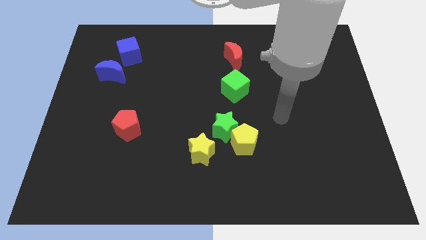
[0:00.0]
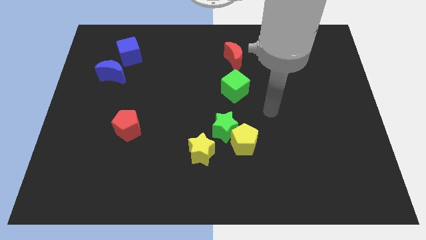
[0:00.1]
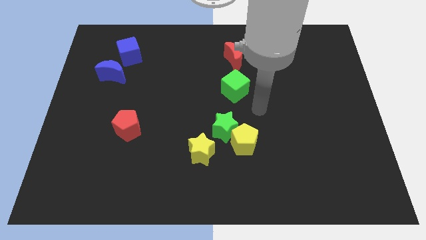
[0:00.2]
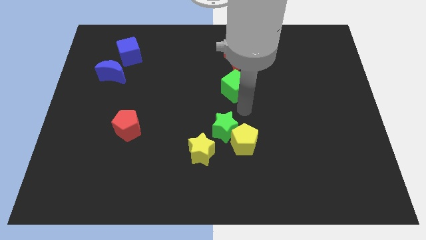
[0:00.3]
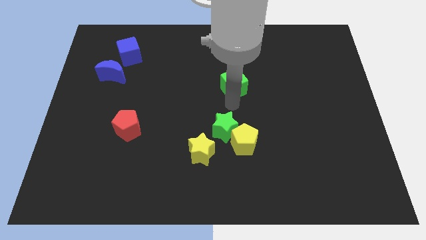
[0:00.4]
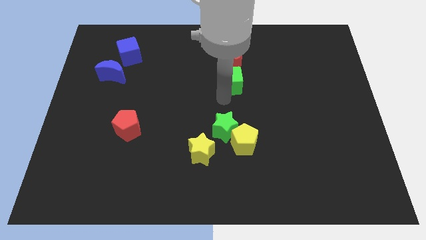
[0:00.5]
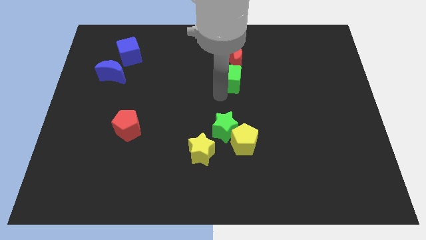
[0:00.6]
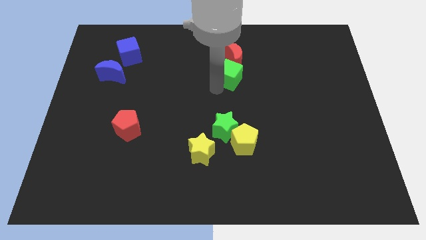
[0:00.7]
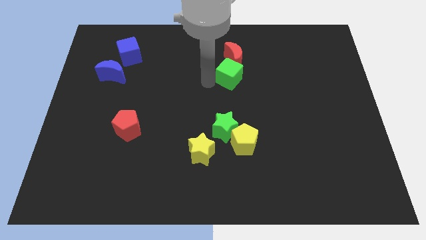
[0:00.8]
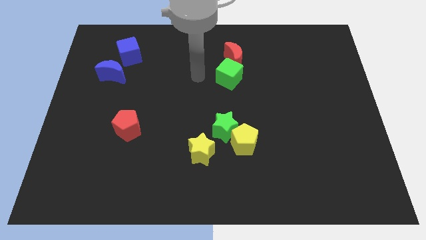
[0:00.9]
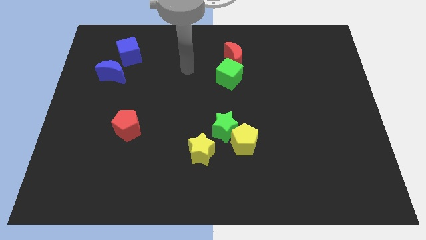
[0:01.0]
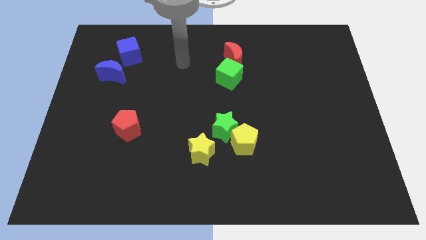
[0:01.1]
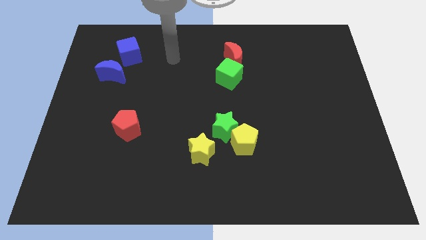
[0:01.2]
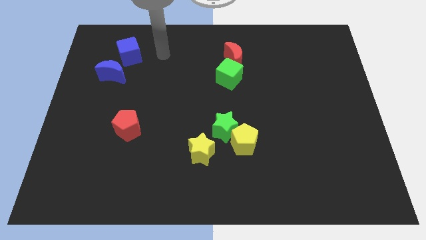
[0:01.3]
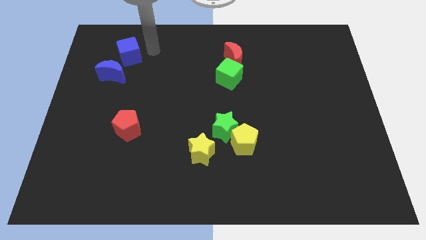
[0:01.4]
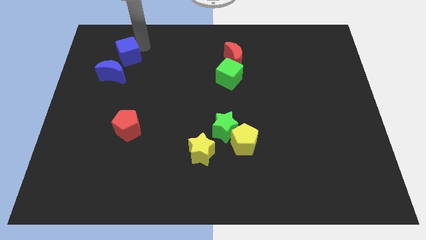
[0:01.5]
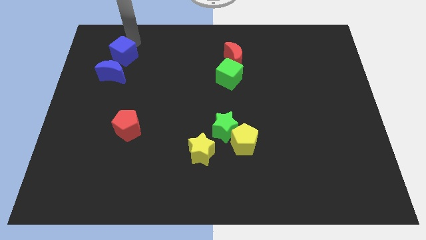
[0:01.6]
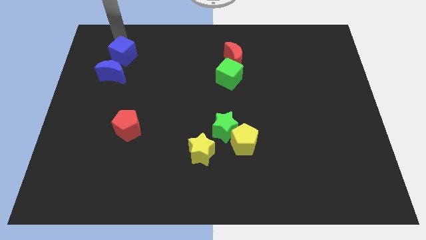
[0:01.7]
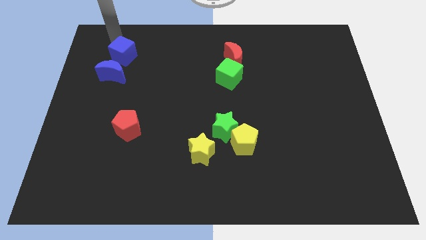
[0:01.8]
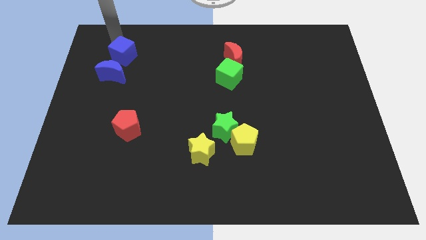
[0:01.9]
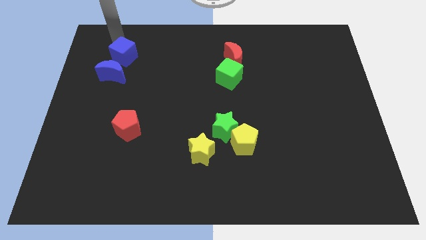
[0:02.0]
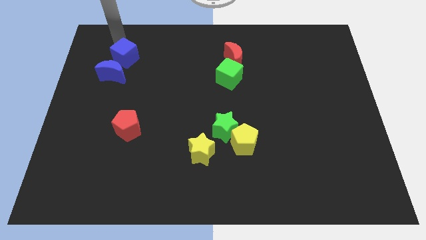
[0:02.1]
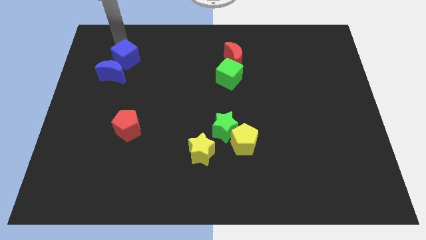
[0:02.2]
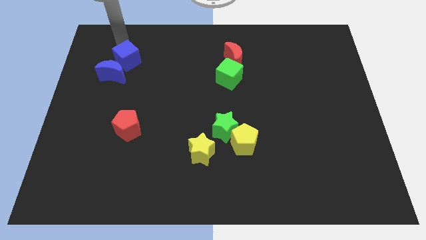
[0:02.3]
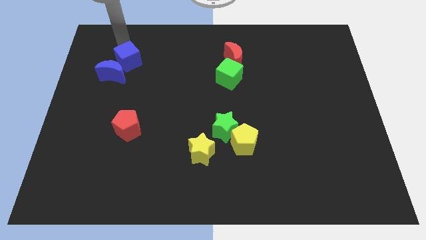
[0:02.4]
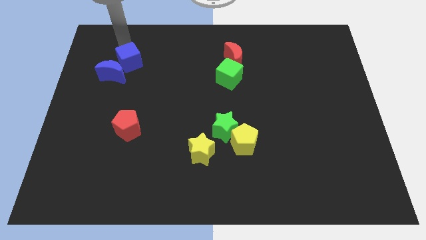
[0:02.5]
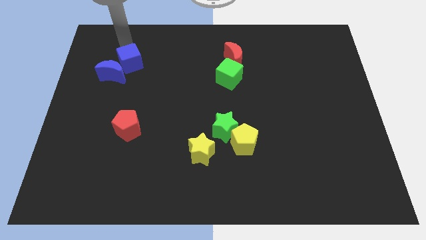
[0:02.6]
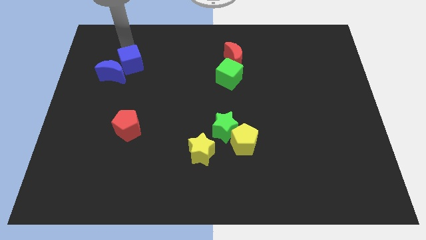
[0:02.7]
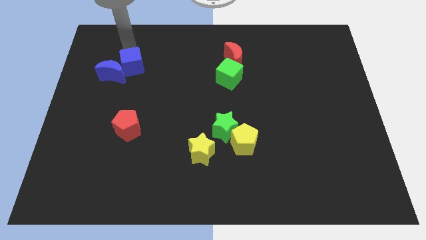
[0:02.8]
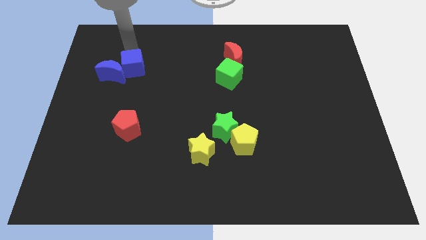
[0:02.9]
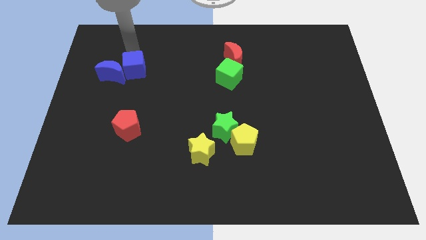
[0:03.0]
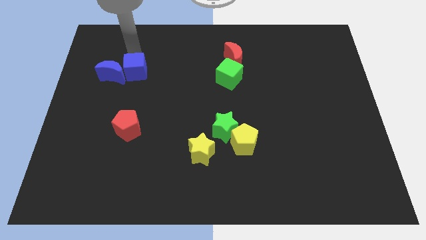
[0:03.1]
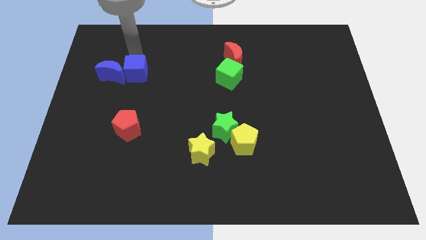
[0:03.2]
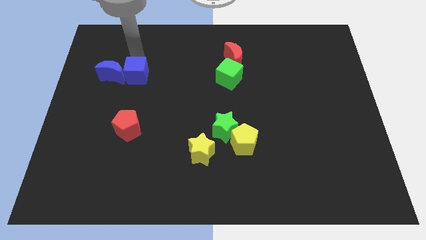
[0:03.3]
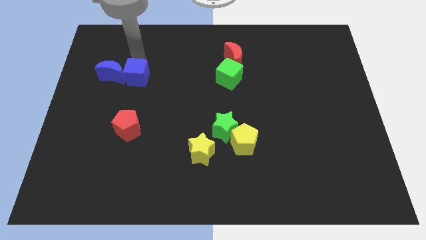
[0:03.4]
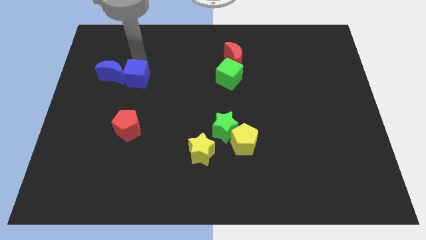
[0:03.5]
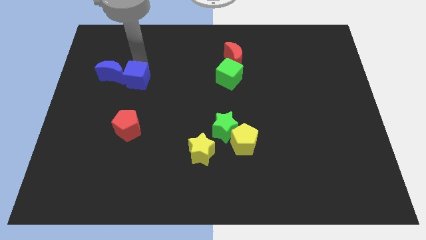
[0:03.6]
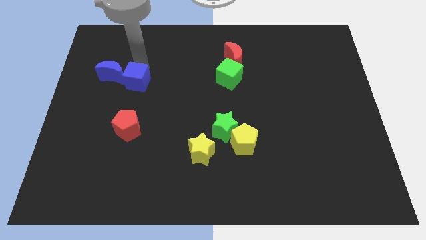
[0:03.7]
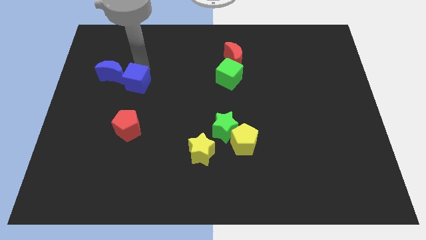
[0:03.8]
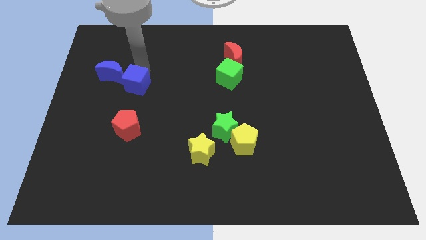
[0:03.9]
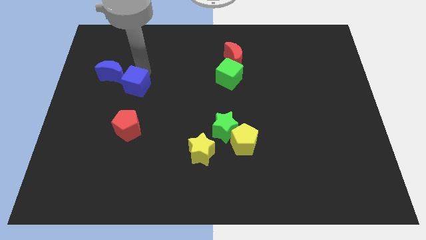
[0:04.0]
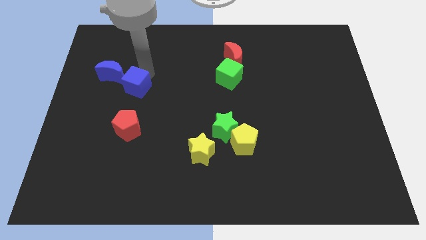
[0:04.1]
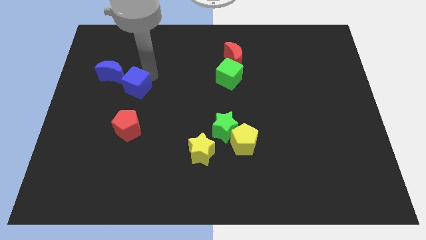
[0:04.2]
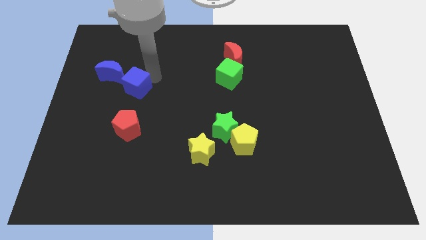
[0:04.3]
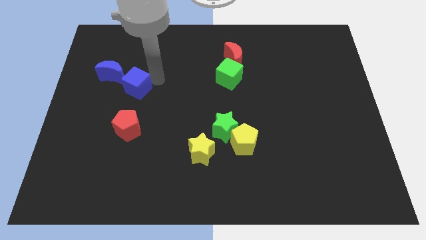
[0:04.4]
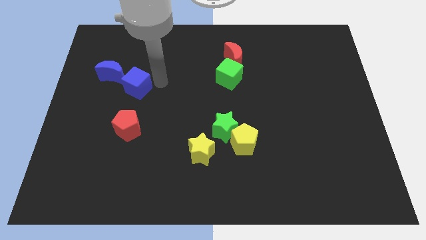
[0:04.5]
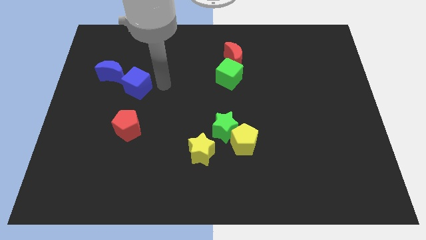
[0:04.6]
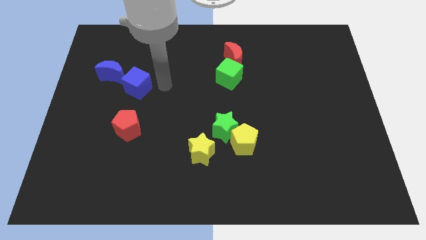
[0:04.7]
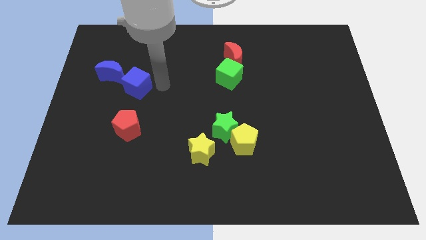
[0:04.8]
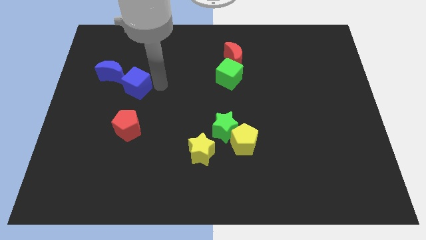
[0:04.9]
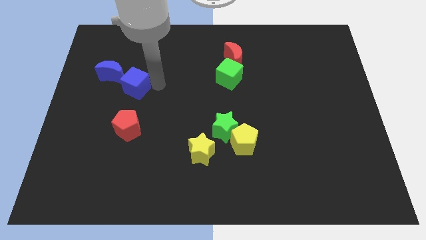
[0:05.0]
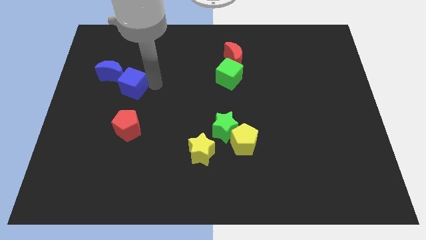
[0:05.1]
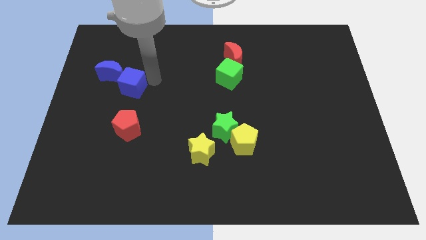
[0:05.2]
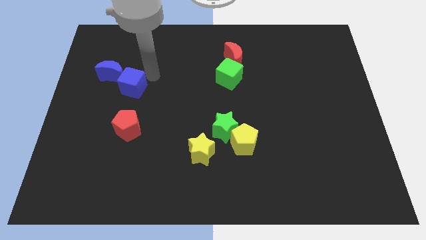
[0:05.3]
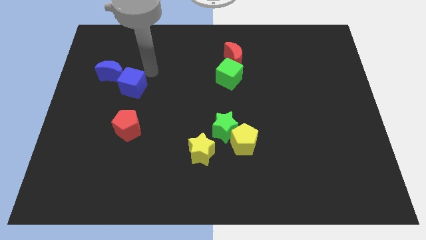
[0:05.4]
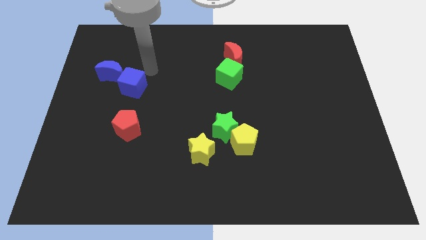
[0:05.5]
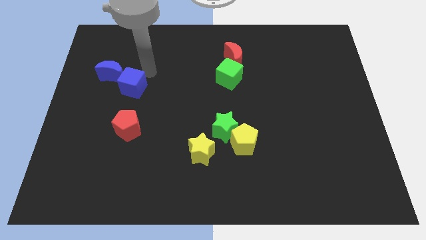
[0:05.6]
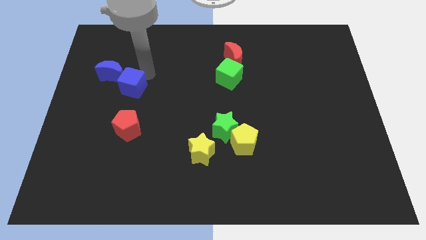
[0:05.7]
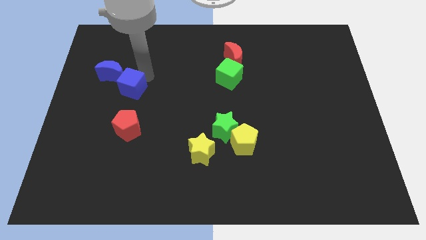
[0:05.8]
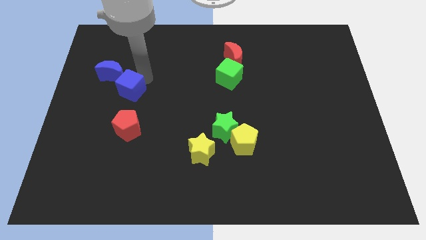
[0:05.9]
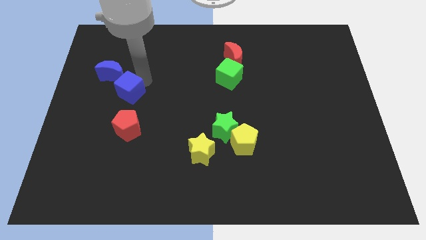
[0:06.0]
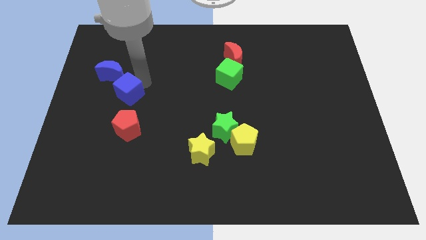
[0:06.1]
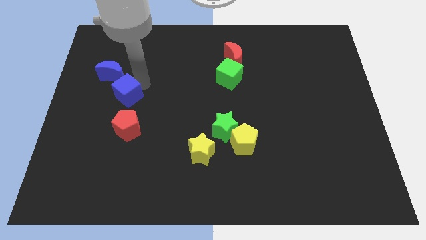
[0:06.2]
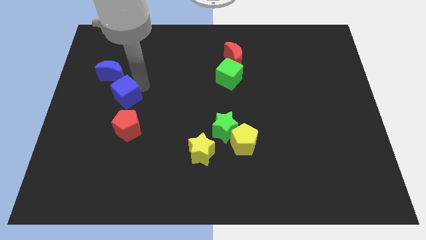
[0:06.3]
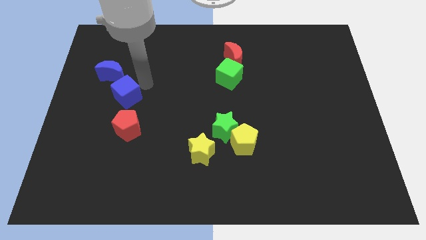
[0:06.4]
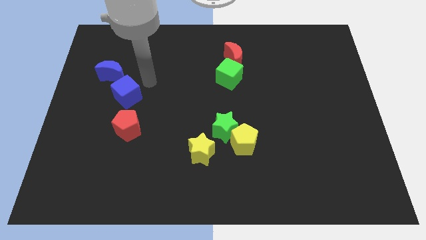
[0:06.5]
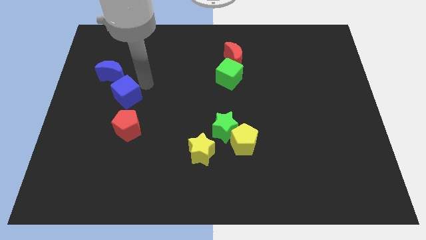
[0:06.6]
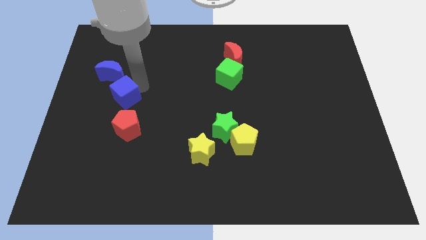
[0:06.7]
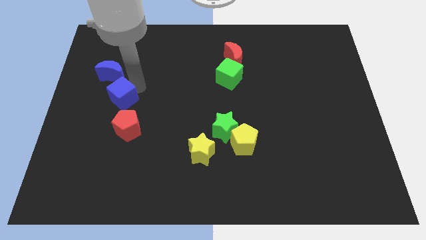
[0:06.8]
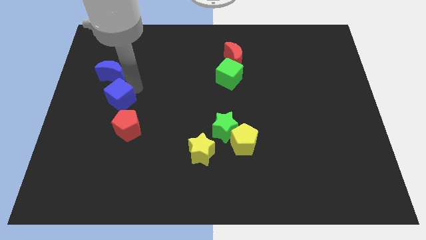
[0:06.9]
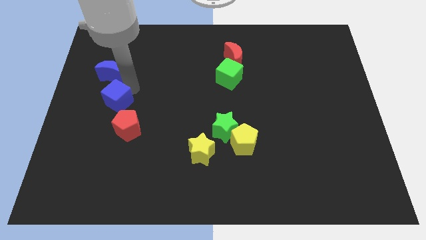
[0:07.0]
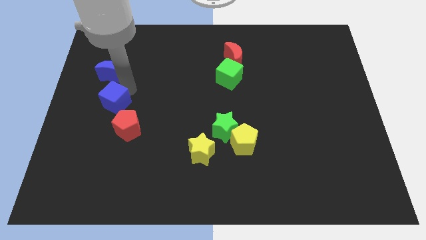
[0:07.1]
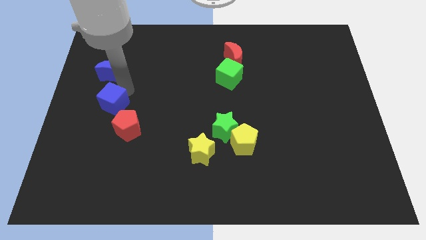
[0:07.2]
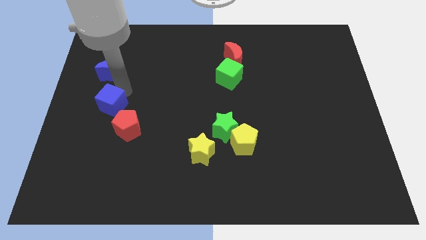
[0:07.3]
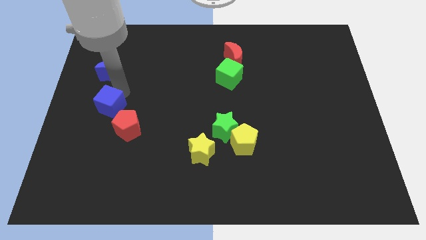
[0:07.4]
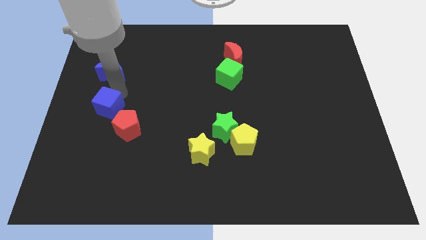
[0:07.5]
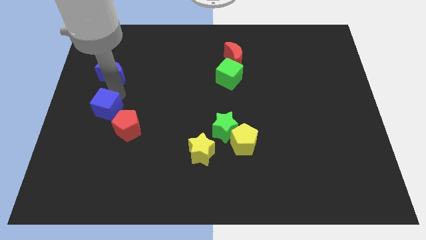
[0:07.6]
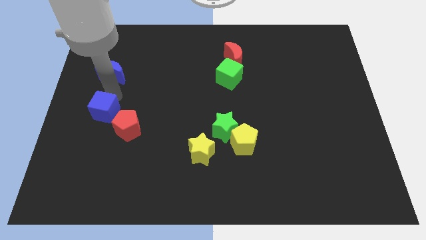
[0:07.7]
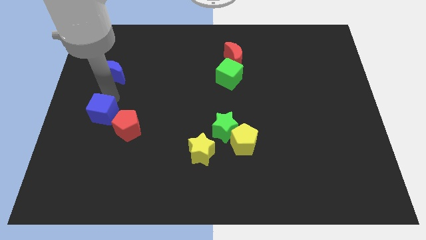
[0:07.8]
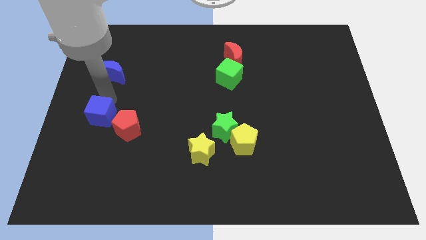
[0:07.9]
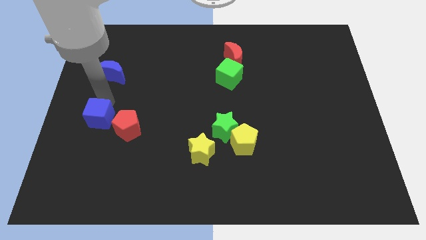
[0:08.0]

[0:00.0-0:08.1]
move the blue cube down
